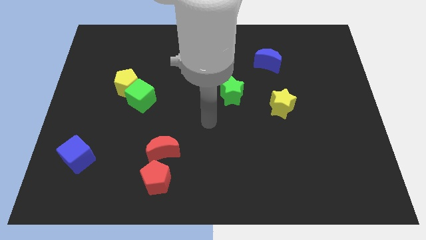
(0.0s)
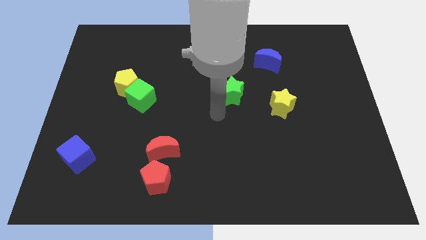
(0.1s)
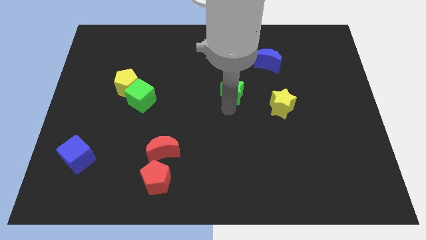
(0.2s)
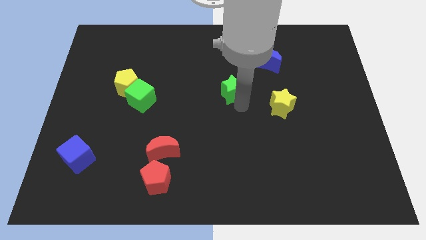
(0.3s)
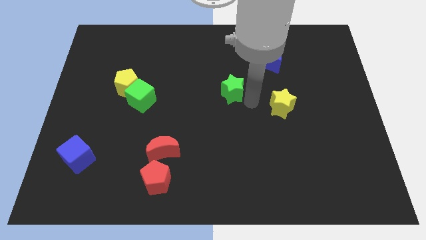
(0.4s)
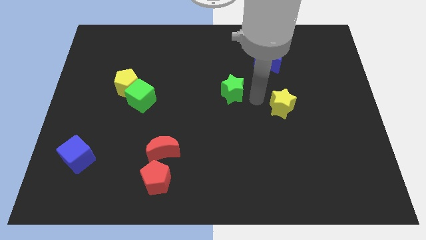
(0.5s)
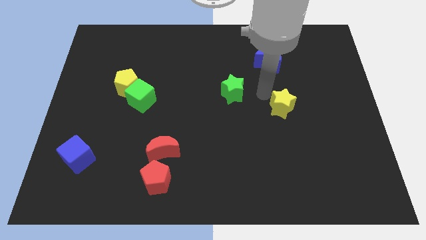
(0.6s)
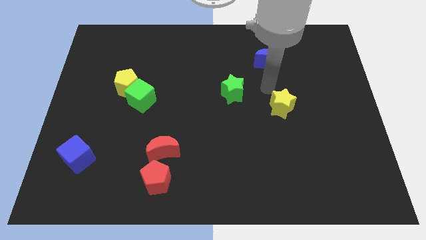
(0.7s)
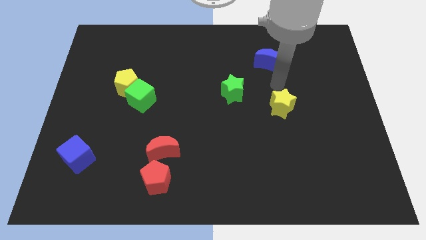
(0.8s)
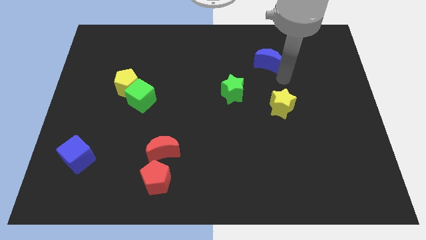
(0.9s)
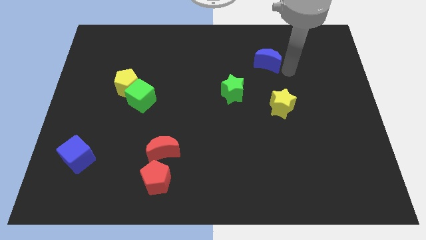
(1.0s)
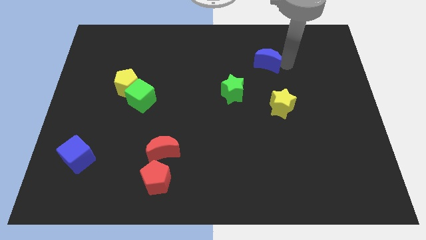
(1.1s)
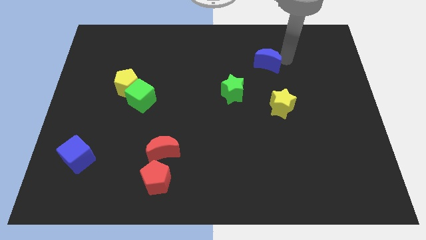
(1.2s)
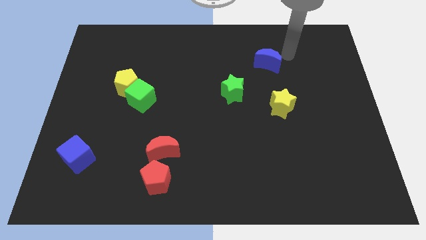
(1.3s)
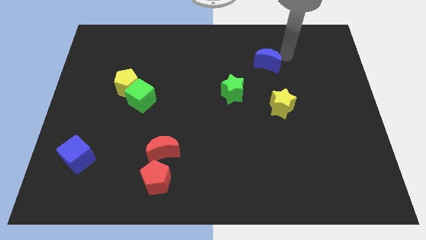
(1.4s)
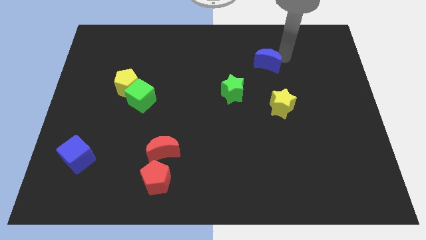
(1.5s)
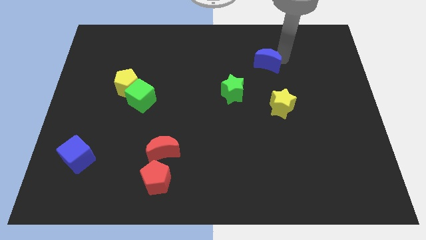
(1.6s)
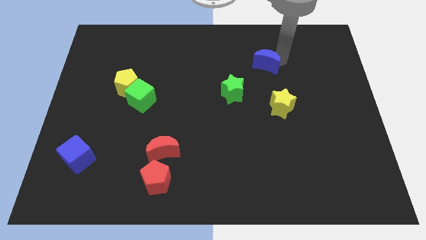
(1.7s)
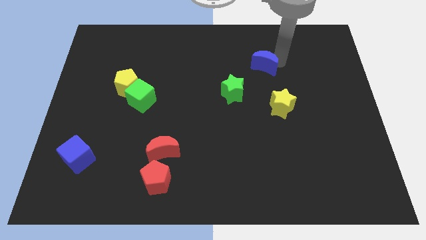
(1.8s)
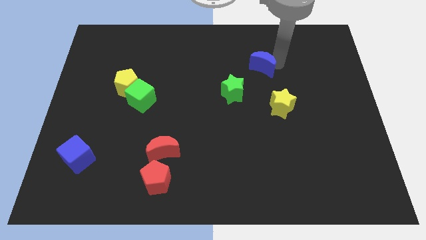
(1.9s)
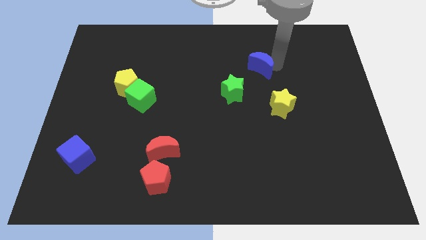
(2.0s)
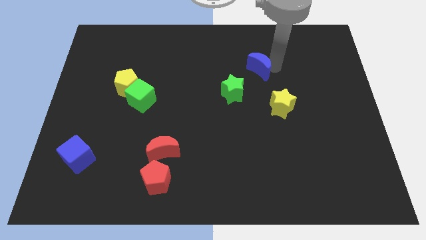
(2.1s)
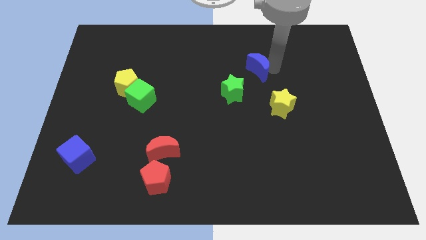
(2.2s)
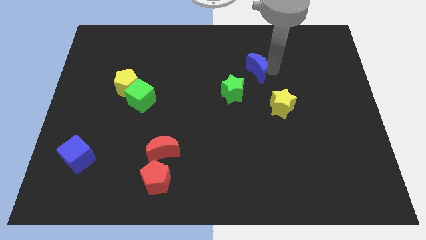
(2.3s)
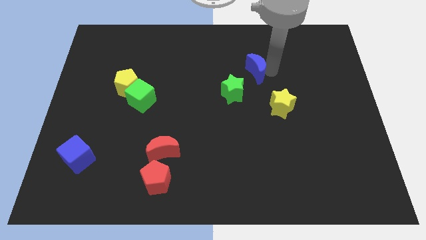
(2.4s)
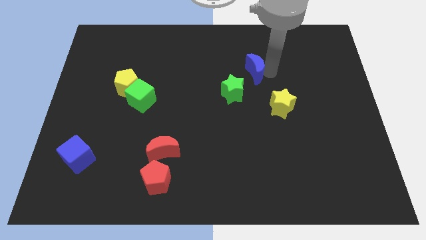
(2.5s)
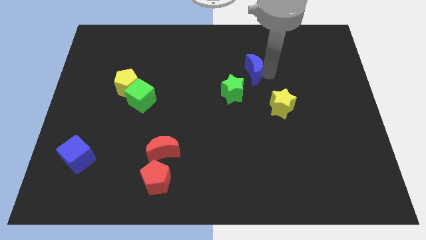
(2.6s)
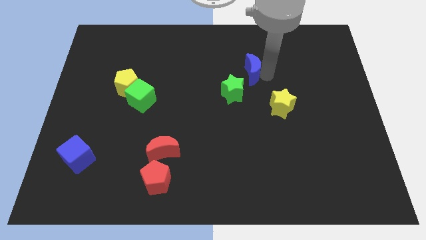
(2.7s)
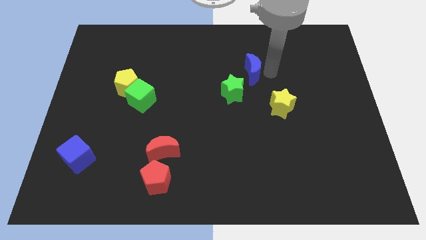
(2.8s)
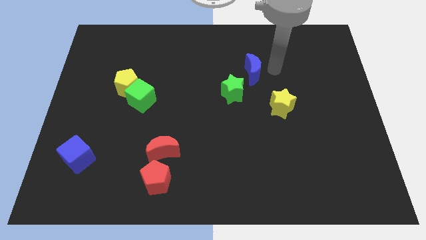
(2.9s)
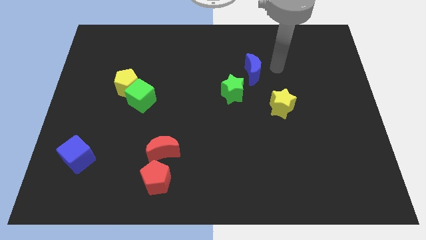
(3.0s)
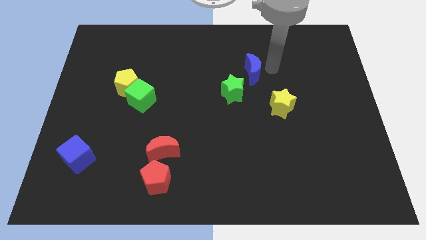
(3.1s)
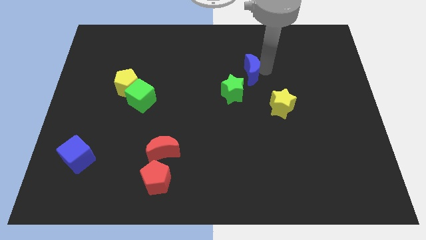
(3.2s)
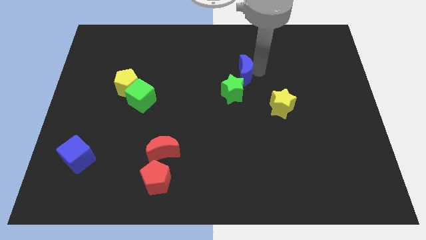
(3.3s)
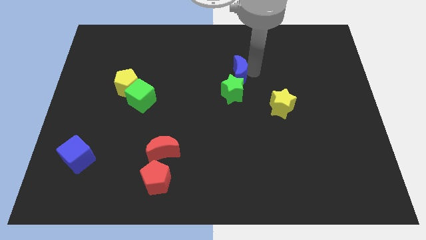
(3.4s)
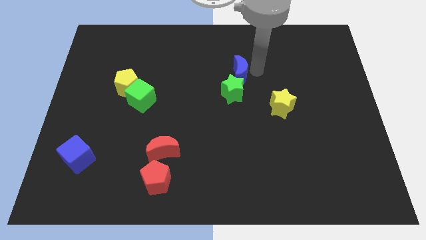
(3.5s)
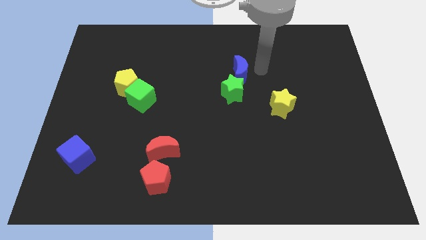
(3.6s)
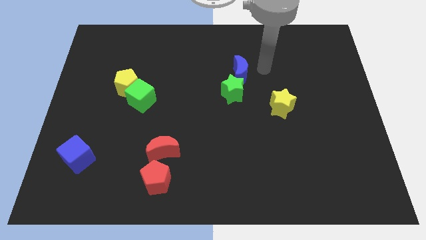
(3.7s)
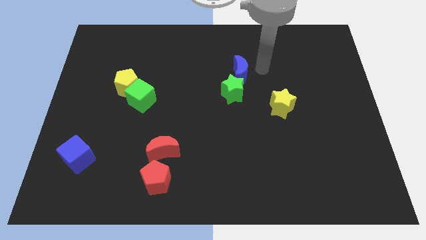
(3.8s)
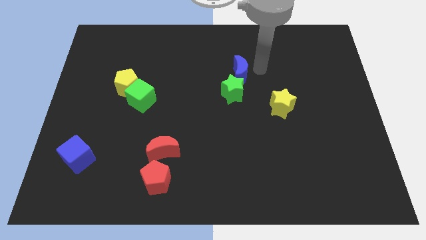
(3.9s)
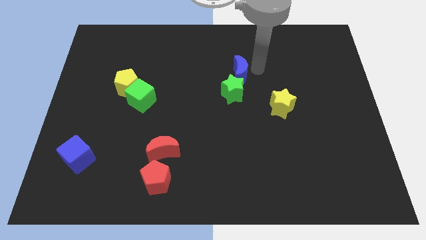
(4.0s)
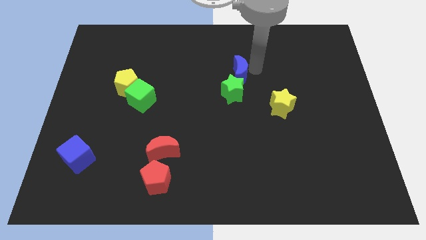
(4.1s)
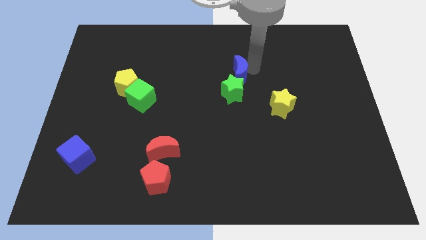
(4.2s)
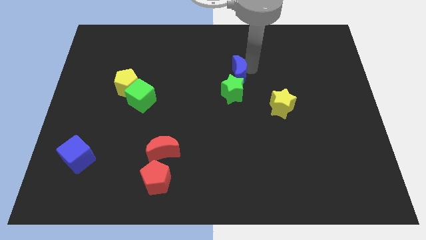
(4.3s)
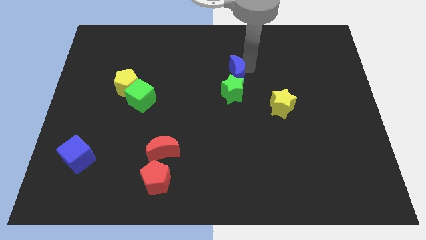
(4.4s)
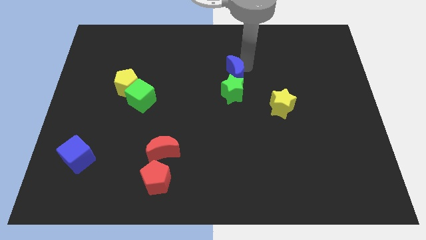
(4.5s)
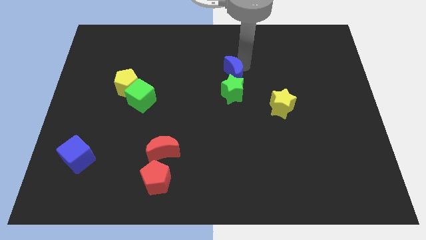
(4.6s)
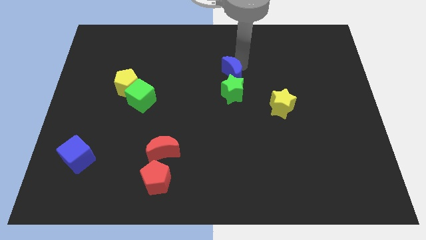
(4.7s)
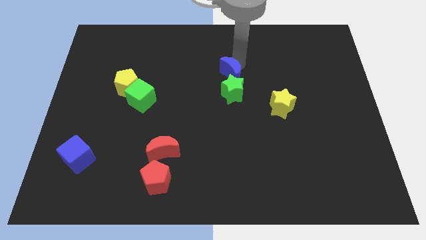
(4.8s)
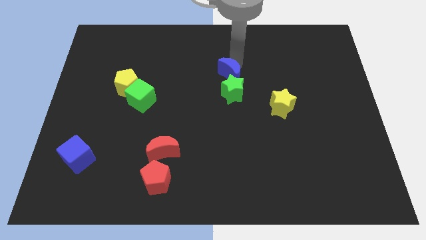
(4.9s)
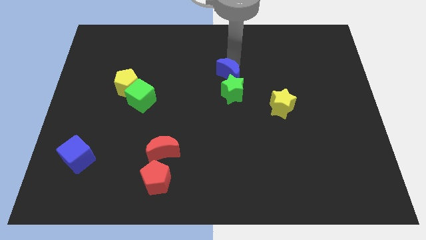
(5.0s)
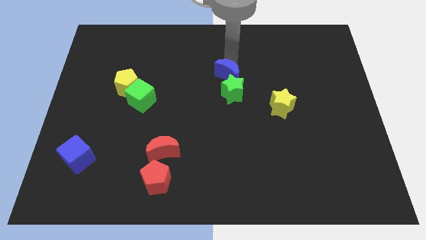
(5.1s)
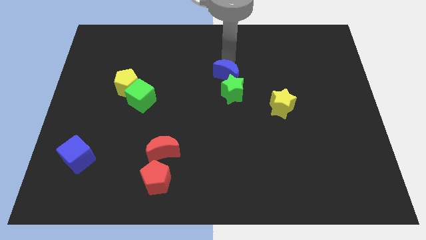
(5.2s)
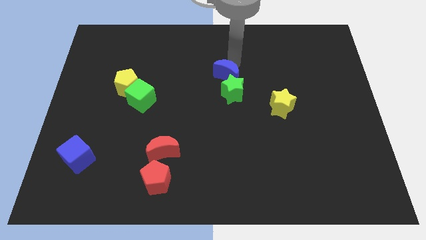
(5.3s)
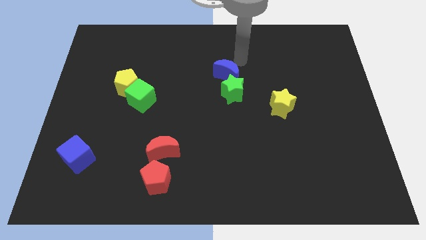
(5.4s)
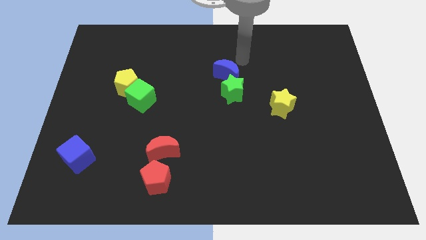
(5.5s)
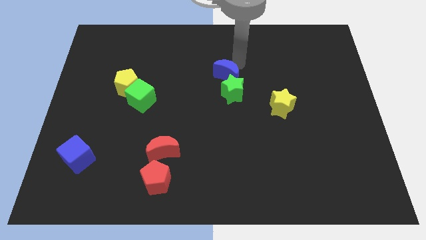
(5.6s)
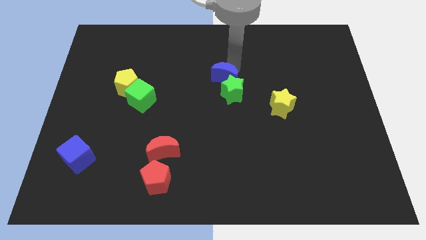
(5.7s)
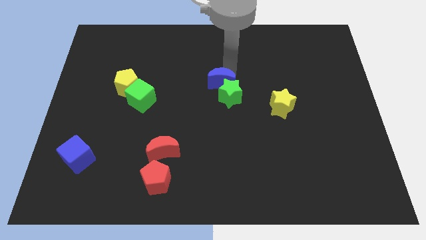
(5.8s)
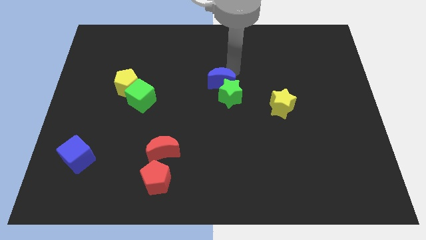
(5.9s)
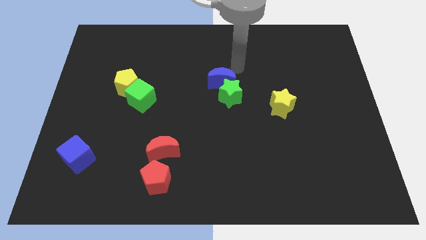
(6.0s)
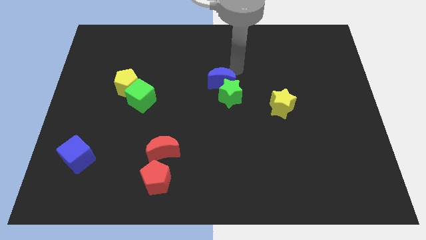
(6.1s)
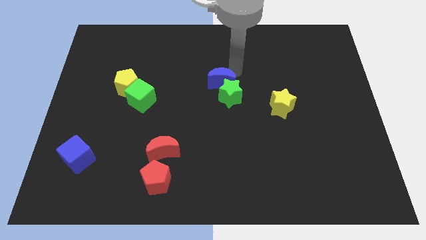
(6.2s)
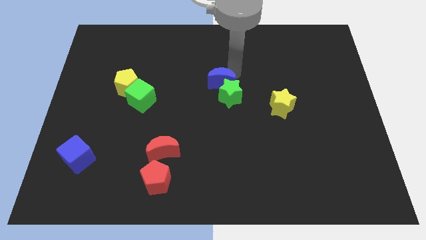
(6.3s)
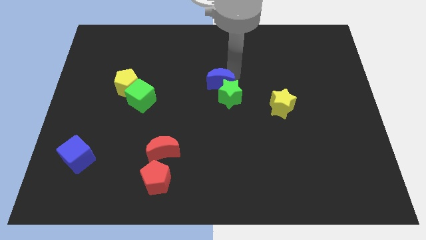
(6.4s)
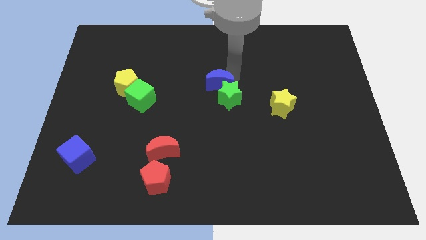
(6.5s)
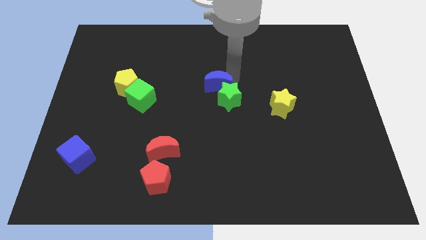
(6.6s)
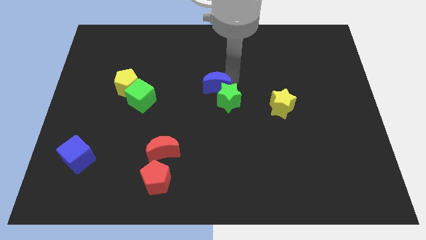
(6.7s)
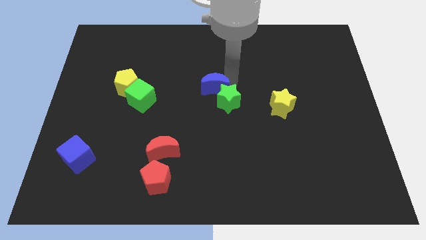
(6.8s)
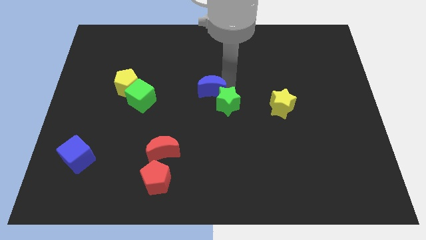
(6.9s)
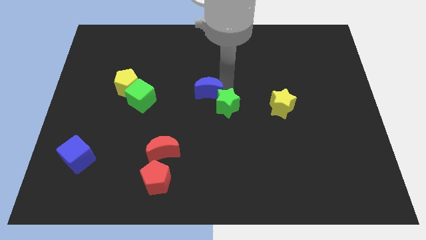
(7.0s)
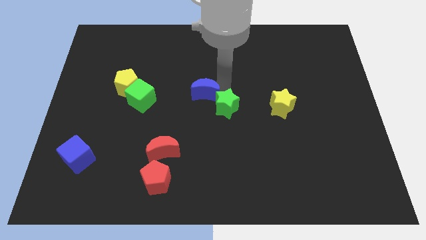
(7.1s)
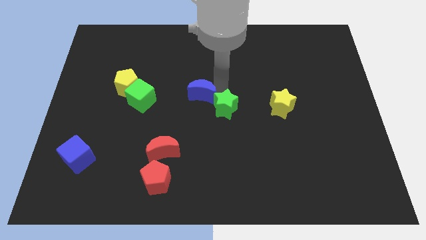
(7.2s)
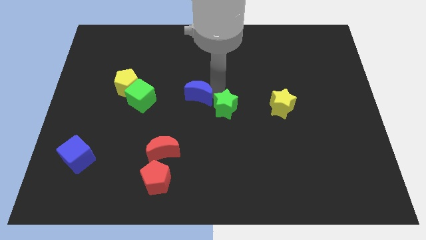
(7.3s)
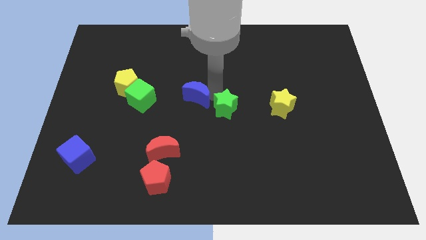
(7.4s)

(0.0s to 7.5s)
push the blue moon diagonally downwards and left

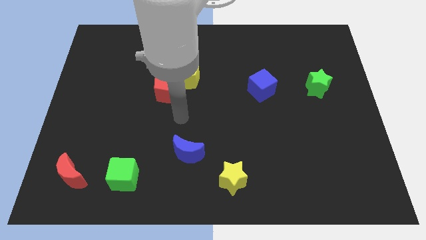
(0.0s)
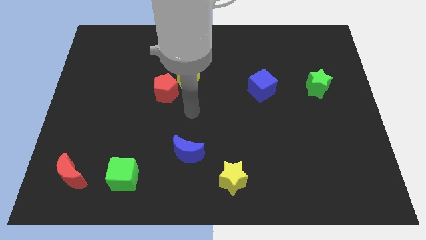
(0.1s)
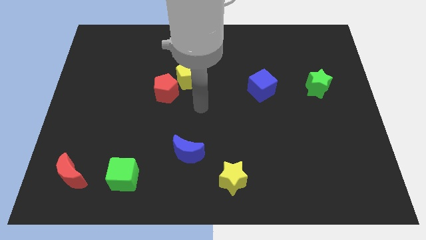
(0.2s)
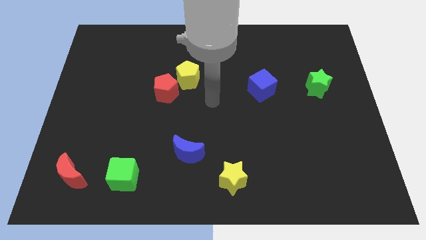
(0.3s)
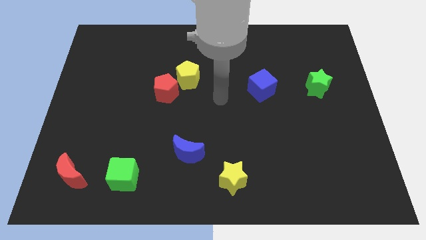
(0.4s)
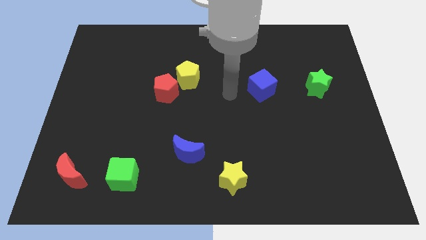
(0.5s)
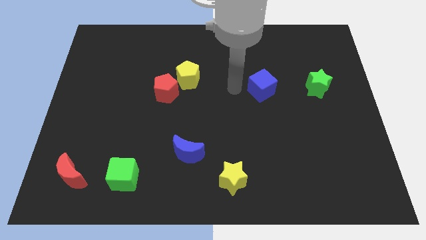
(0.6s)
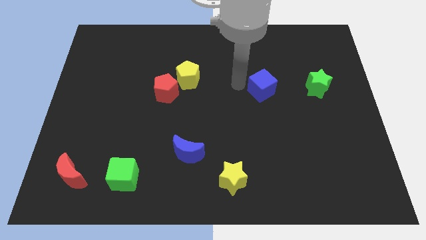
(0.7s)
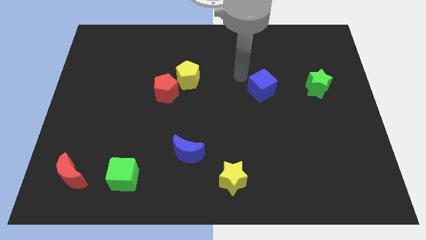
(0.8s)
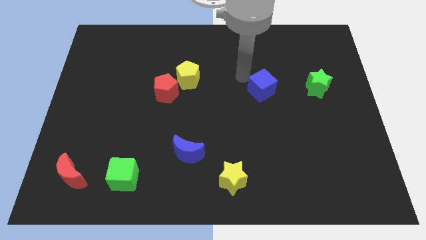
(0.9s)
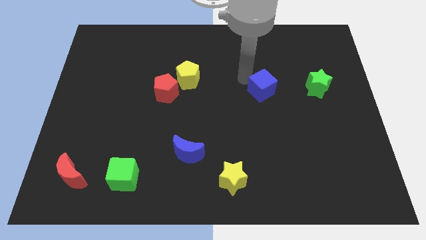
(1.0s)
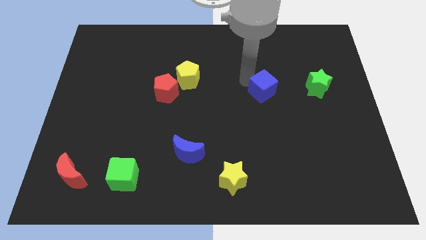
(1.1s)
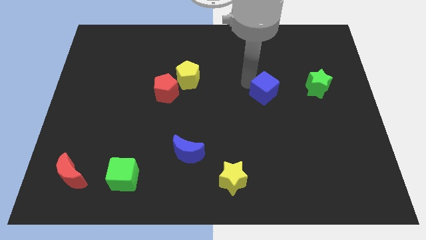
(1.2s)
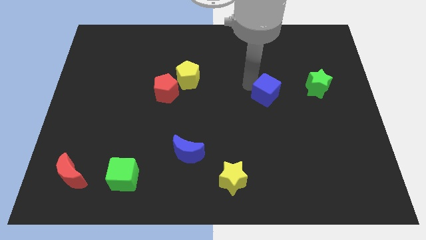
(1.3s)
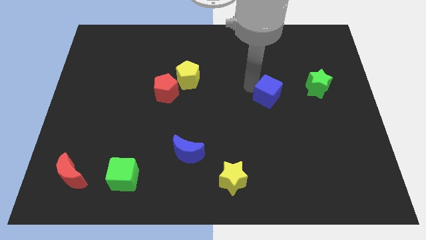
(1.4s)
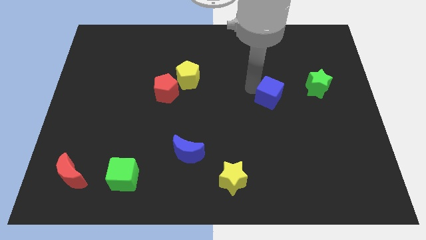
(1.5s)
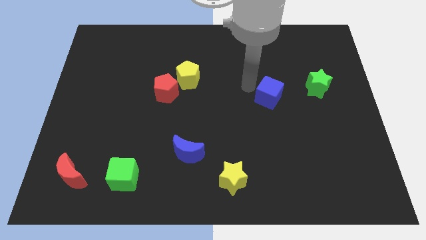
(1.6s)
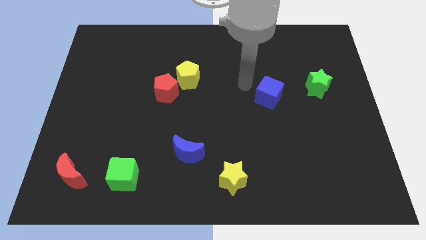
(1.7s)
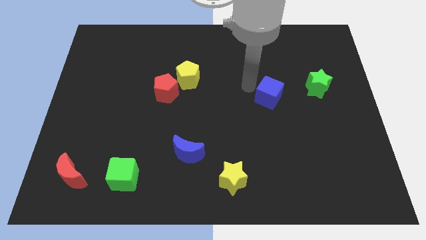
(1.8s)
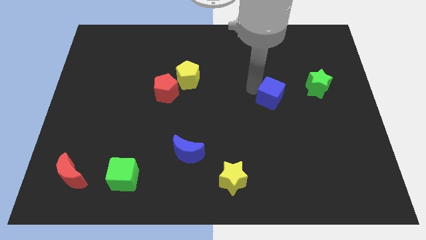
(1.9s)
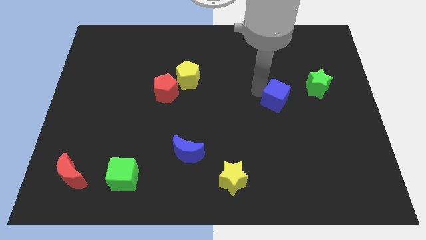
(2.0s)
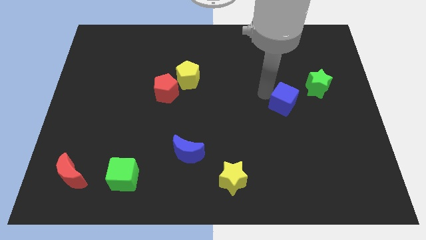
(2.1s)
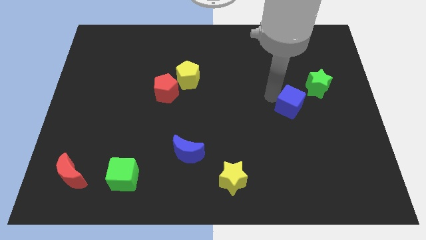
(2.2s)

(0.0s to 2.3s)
push the blue cube a little bit down and right diagonally
